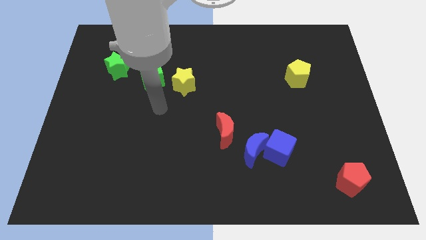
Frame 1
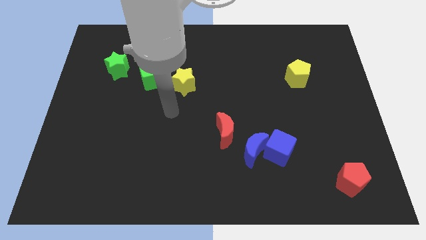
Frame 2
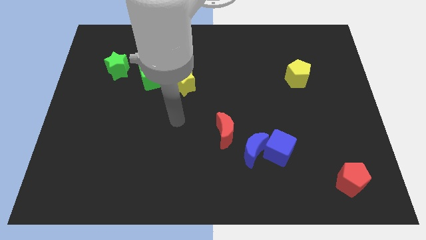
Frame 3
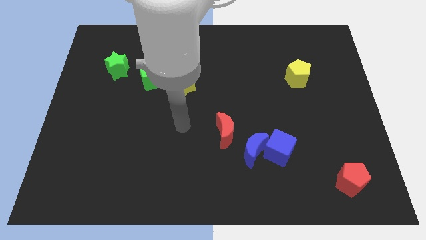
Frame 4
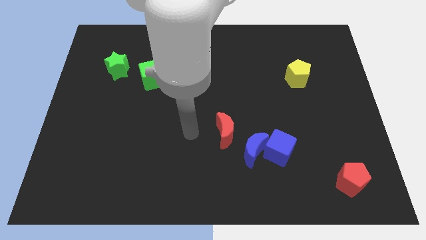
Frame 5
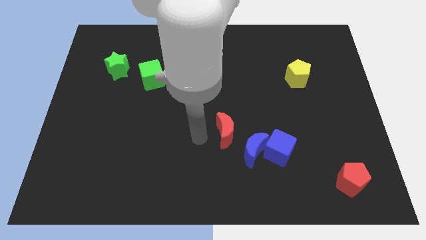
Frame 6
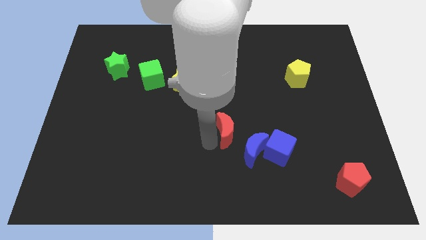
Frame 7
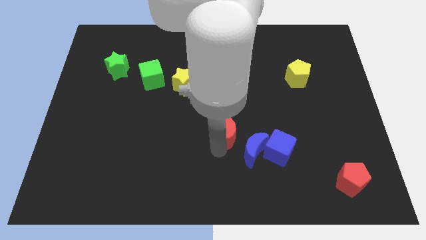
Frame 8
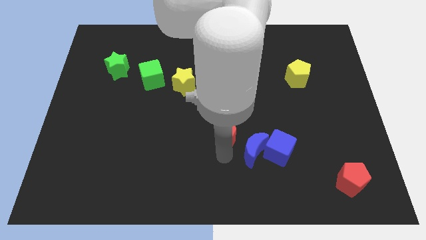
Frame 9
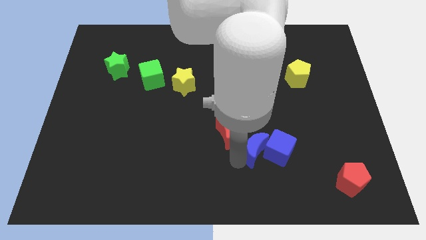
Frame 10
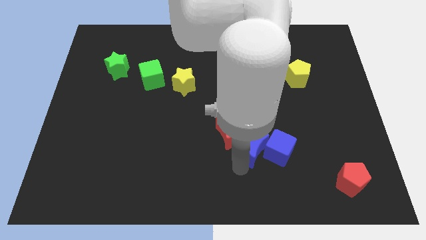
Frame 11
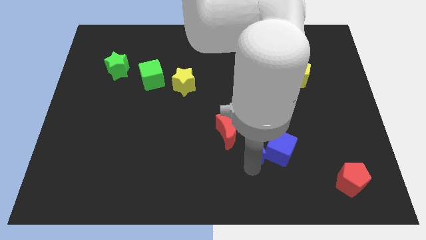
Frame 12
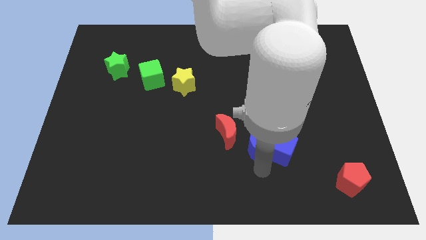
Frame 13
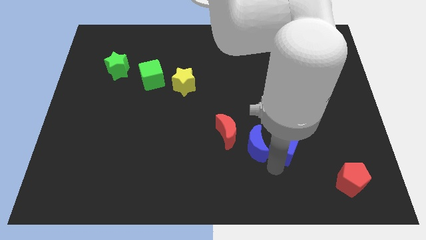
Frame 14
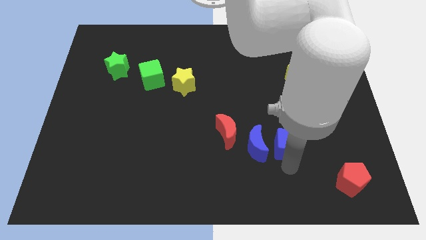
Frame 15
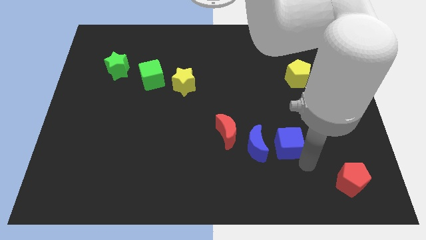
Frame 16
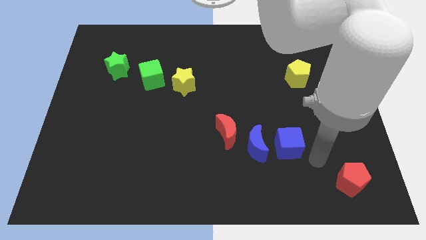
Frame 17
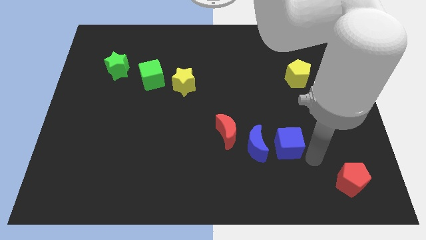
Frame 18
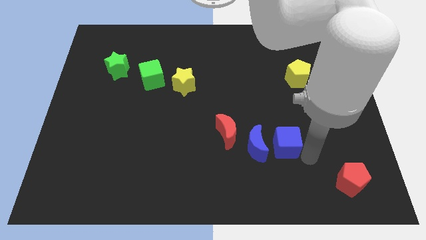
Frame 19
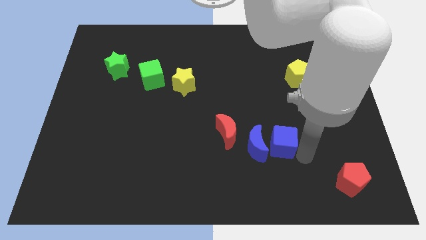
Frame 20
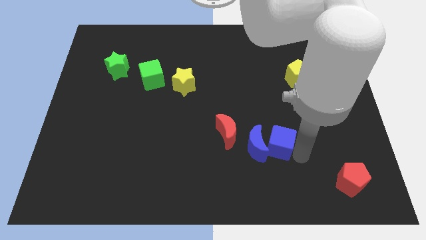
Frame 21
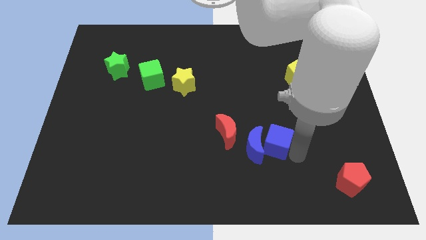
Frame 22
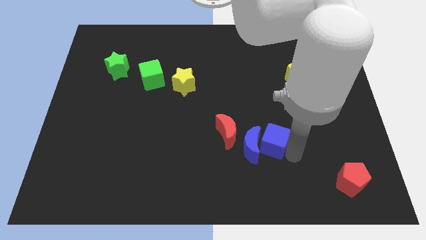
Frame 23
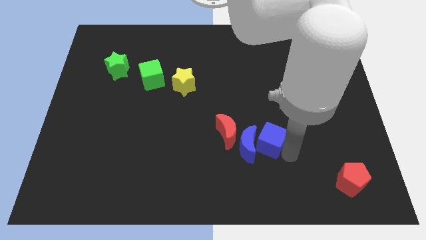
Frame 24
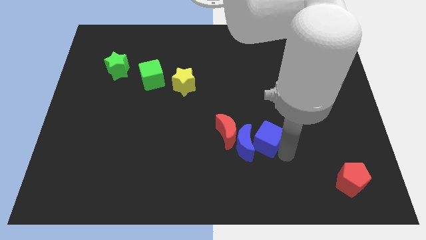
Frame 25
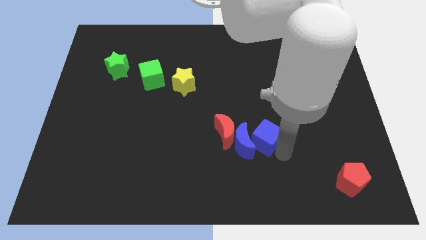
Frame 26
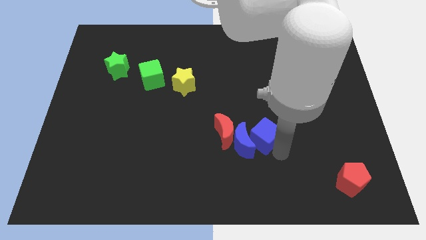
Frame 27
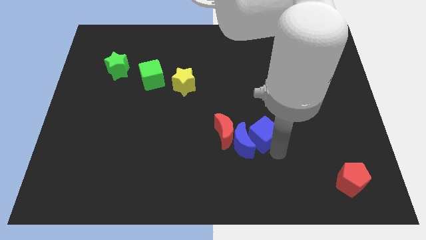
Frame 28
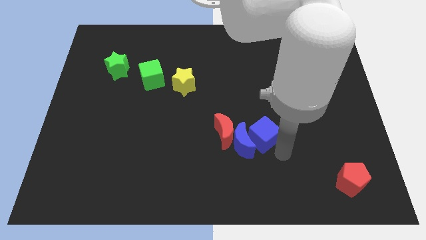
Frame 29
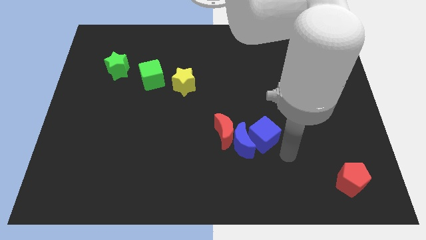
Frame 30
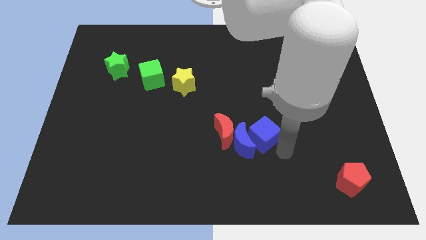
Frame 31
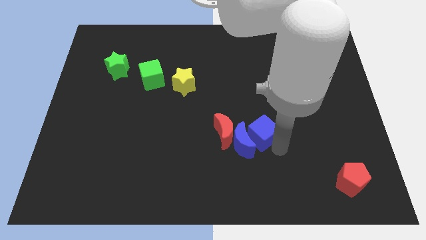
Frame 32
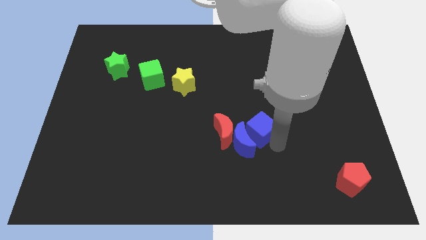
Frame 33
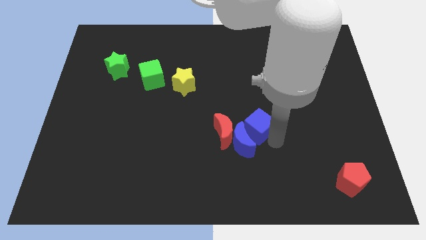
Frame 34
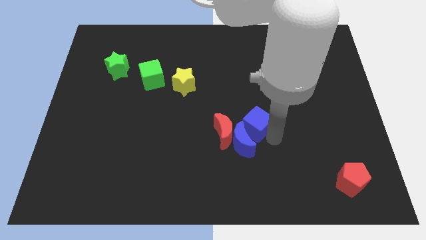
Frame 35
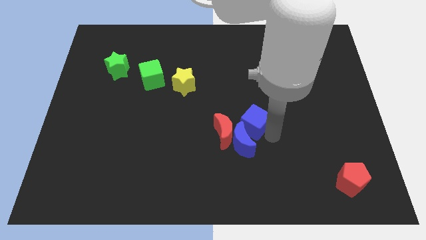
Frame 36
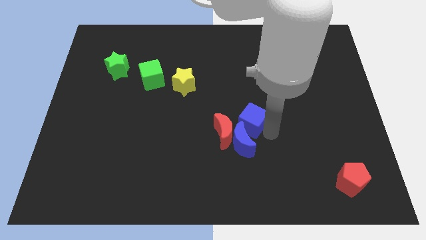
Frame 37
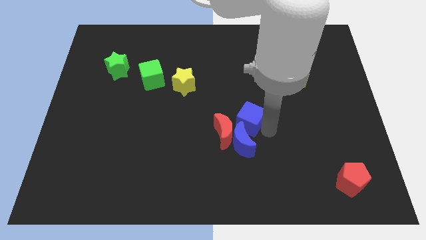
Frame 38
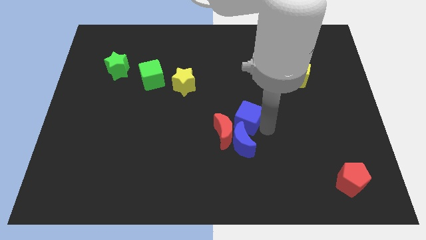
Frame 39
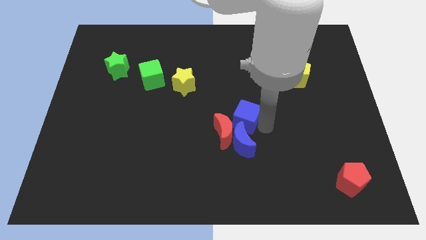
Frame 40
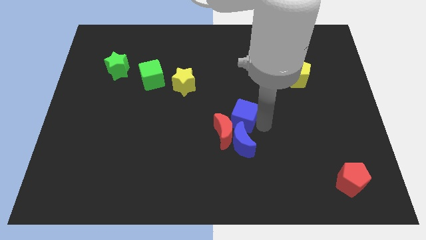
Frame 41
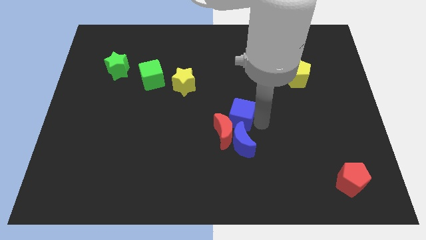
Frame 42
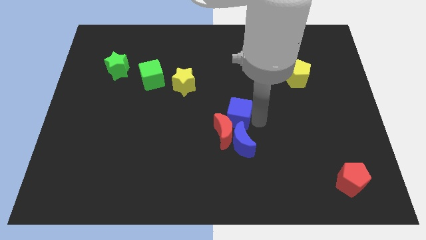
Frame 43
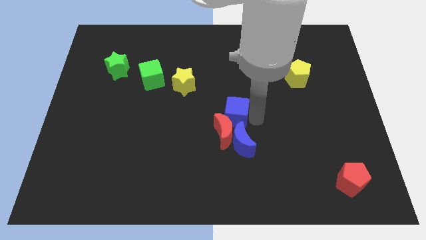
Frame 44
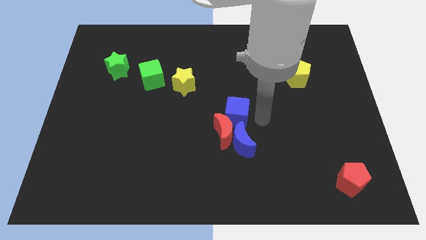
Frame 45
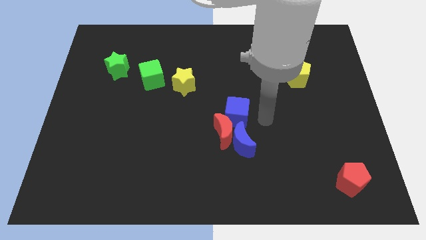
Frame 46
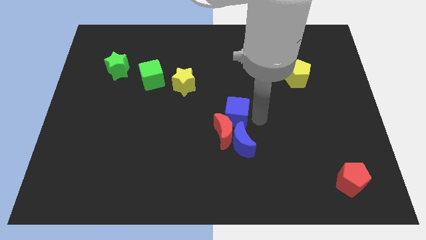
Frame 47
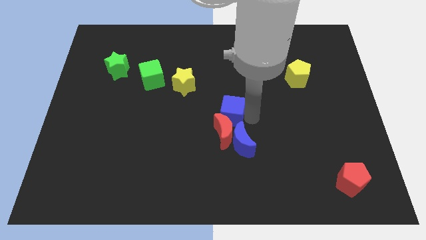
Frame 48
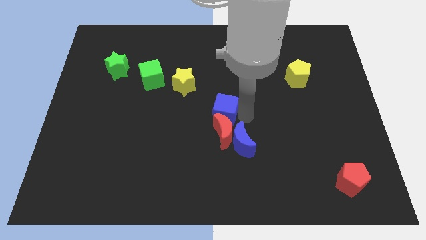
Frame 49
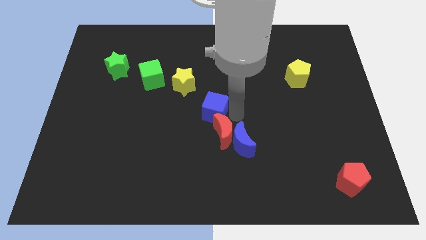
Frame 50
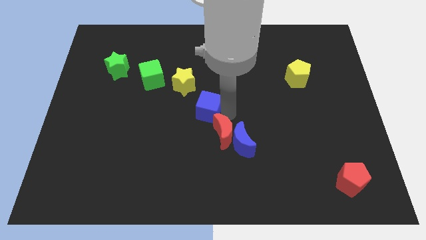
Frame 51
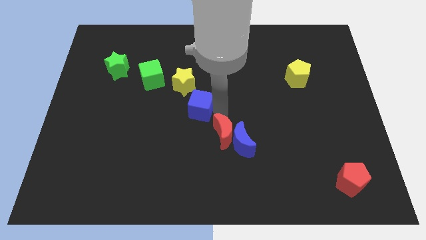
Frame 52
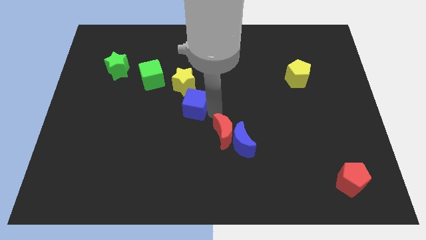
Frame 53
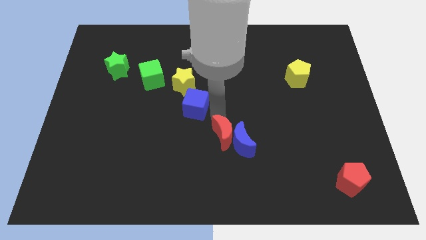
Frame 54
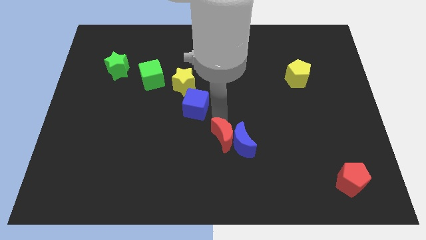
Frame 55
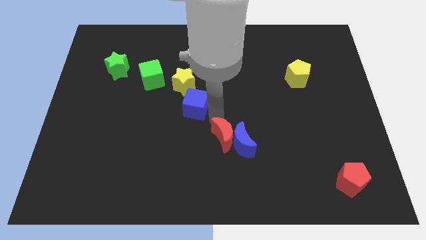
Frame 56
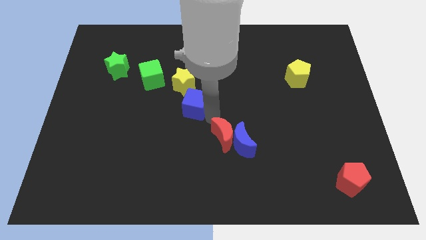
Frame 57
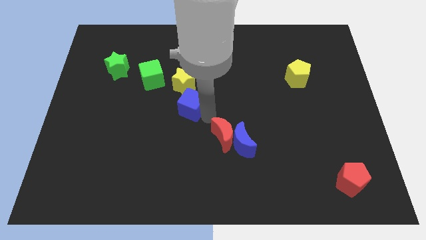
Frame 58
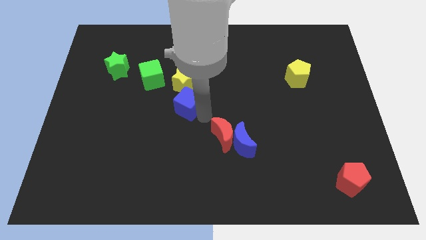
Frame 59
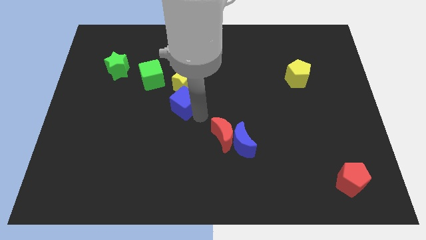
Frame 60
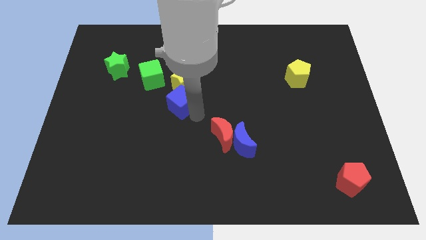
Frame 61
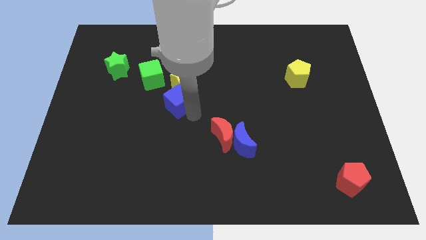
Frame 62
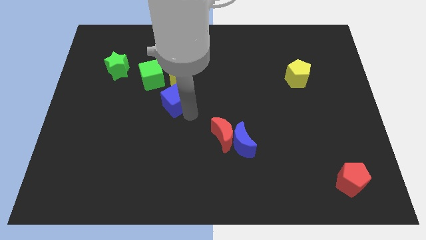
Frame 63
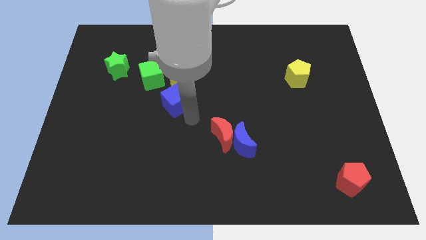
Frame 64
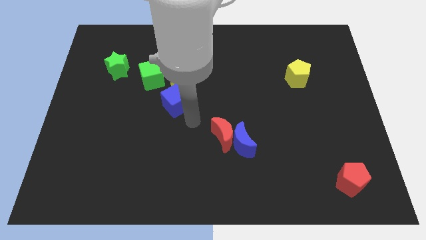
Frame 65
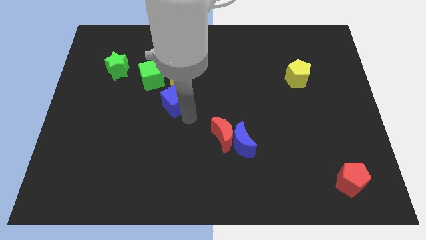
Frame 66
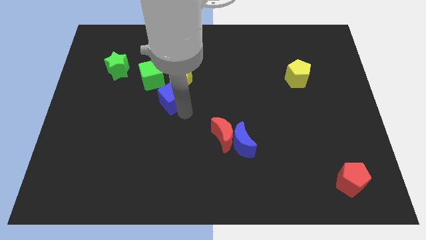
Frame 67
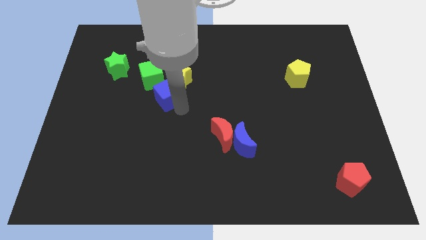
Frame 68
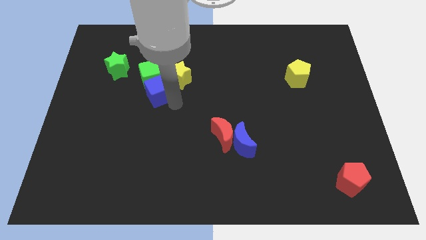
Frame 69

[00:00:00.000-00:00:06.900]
push the blue cube towards the green cube
